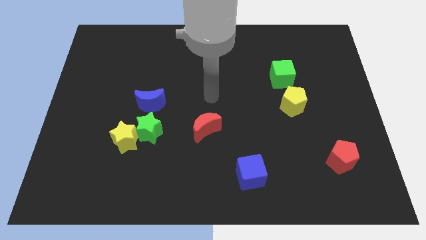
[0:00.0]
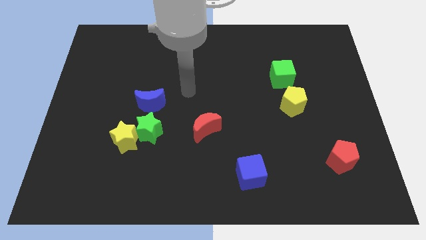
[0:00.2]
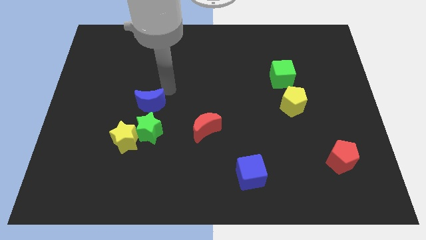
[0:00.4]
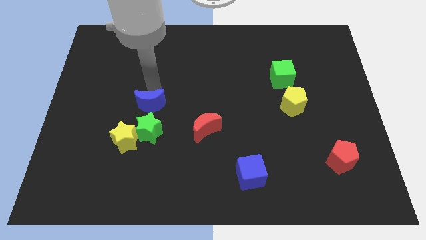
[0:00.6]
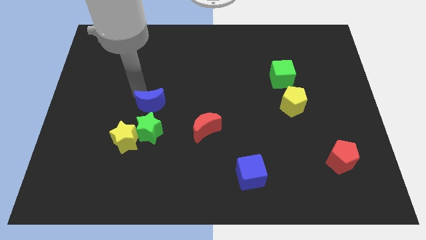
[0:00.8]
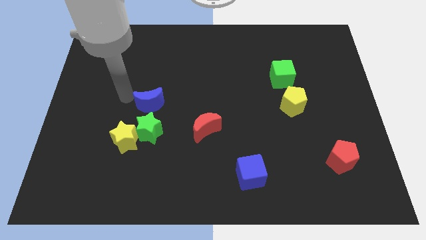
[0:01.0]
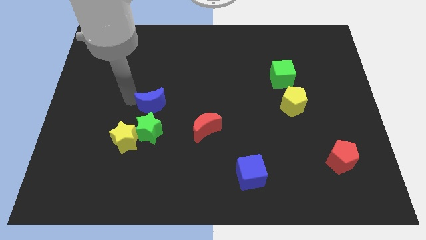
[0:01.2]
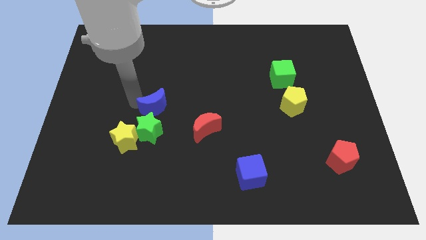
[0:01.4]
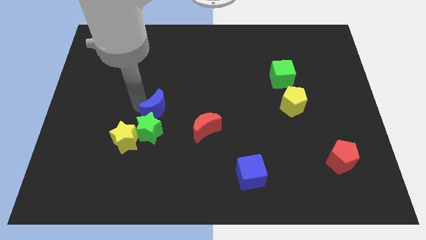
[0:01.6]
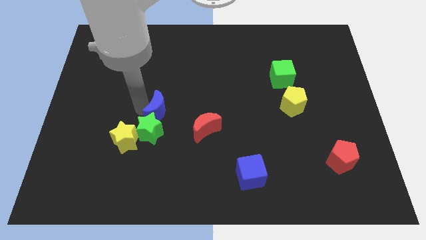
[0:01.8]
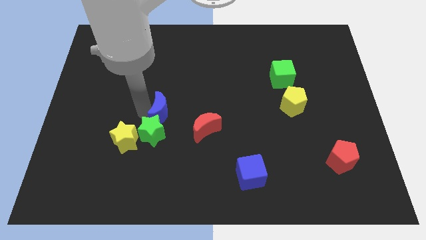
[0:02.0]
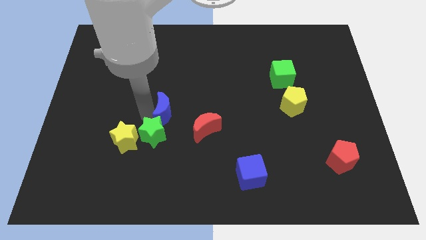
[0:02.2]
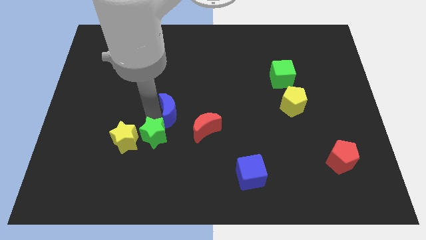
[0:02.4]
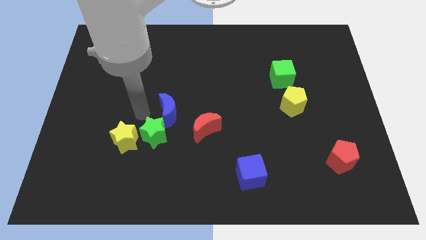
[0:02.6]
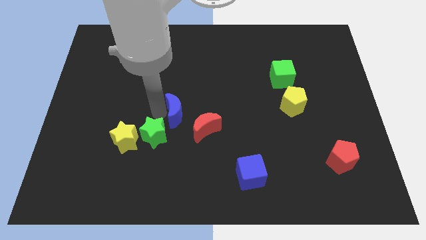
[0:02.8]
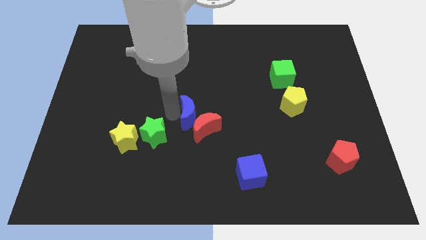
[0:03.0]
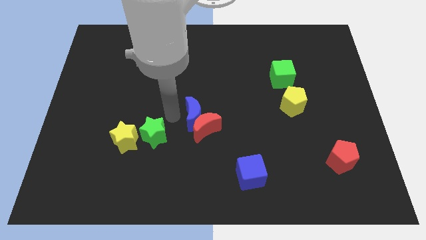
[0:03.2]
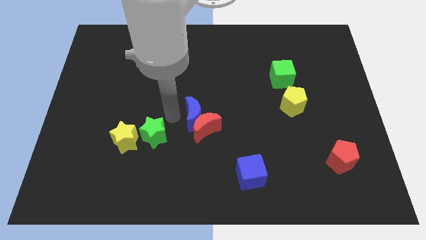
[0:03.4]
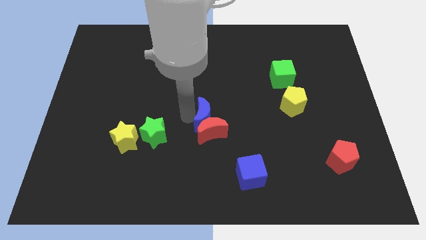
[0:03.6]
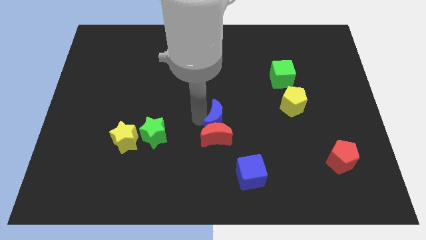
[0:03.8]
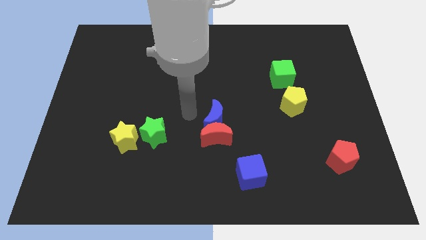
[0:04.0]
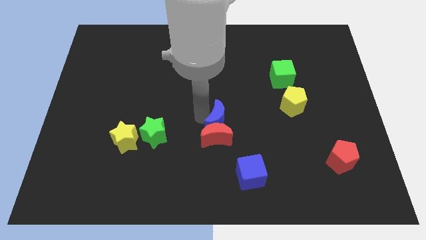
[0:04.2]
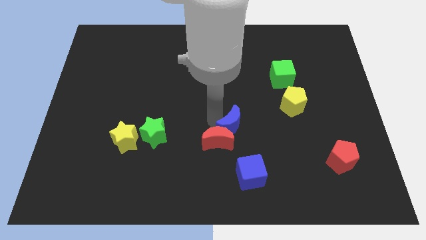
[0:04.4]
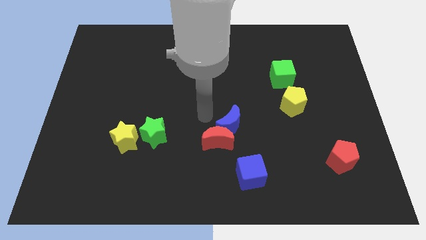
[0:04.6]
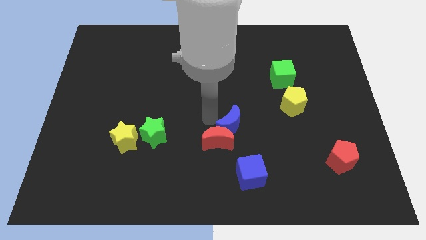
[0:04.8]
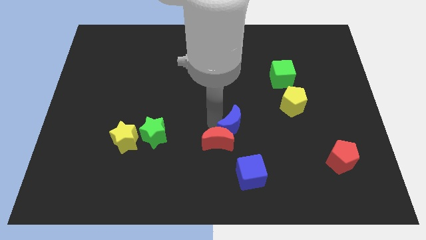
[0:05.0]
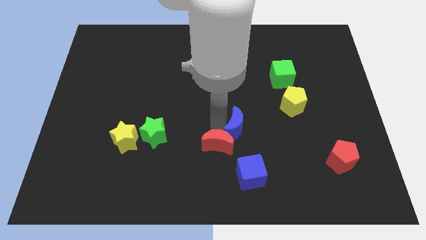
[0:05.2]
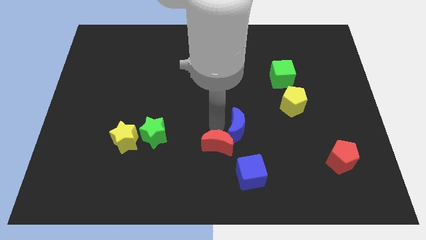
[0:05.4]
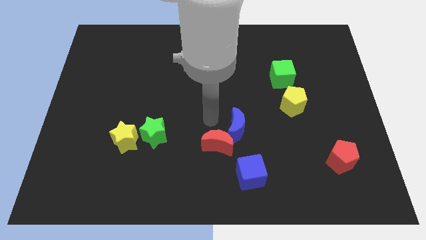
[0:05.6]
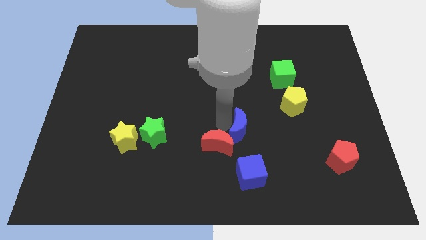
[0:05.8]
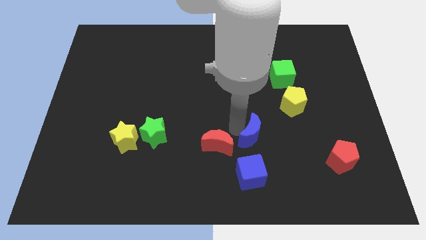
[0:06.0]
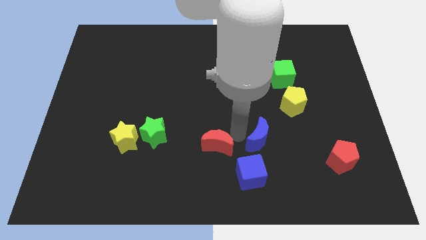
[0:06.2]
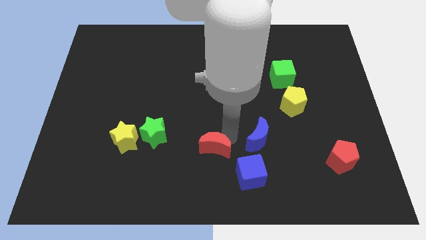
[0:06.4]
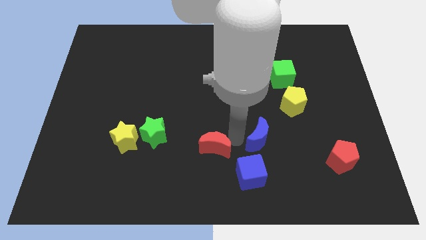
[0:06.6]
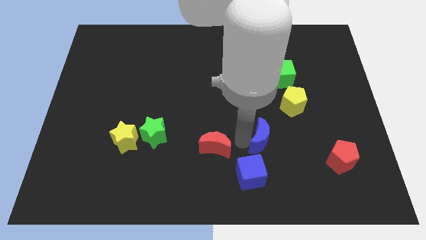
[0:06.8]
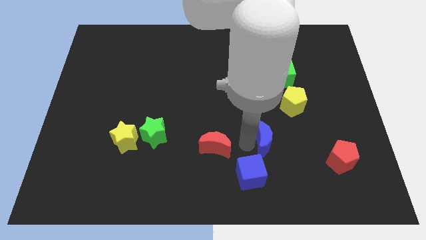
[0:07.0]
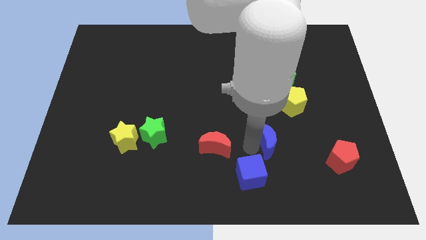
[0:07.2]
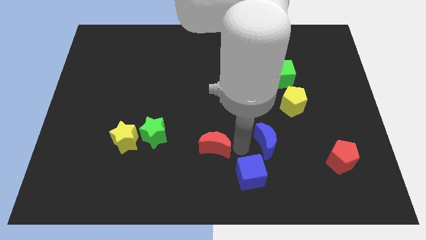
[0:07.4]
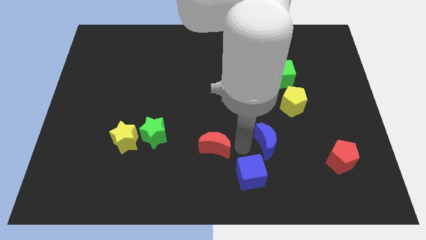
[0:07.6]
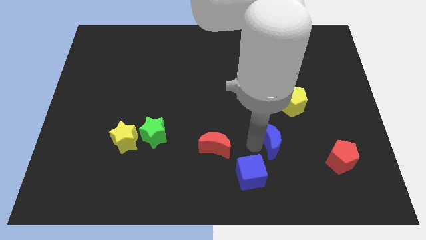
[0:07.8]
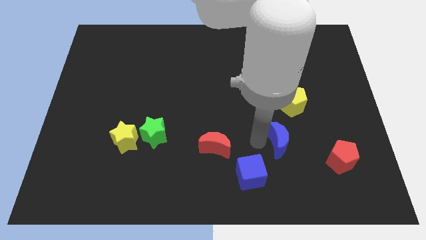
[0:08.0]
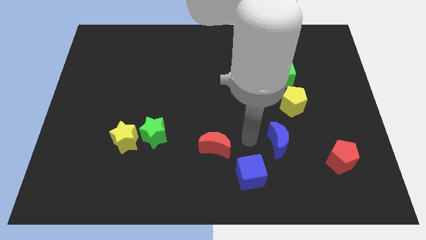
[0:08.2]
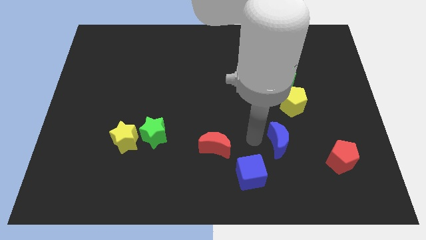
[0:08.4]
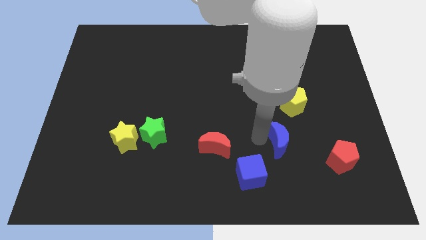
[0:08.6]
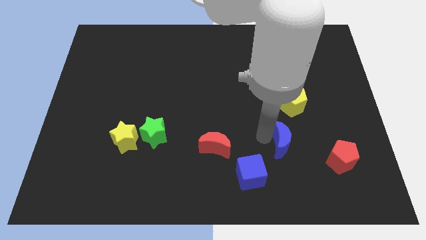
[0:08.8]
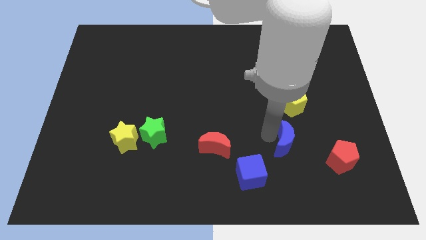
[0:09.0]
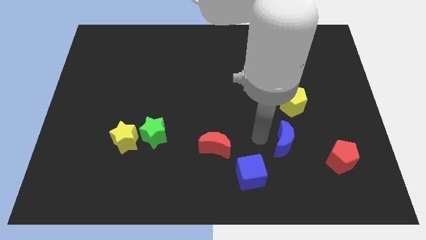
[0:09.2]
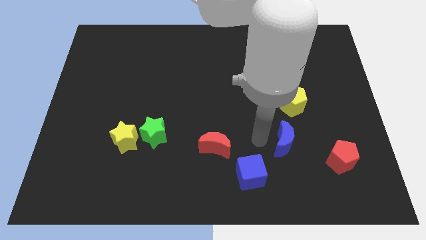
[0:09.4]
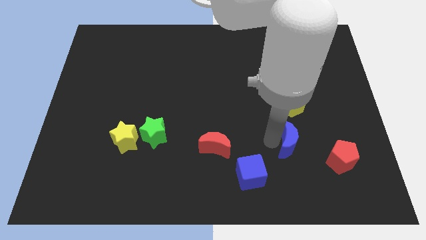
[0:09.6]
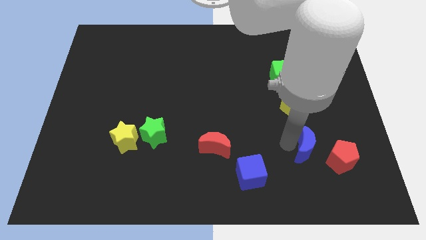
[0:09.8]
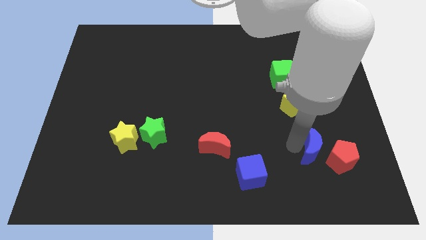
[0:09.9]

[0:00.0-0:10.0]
push the blue moon towards the red pentagon

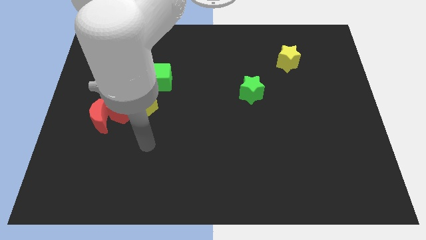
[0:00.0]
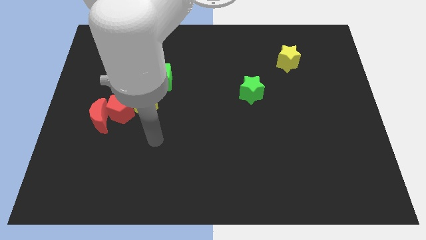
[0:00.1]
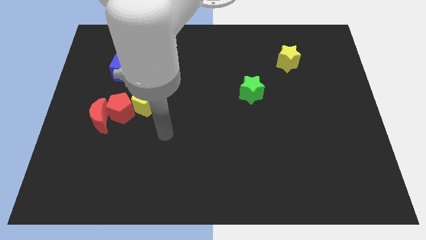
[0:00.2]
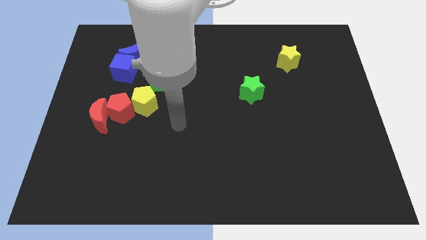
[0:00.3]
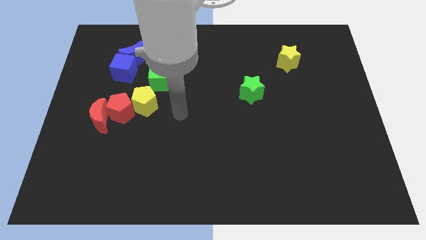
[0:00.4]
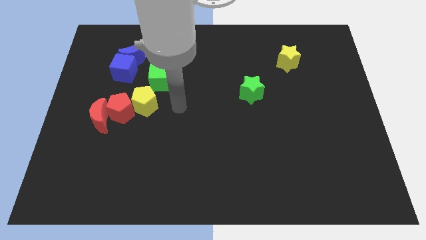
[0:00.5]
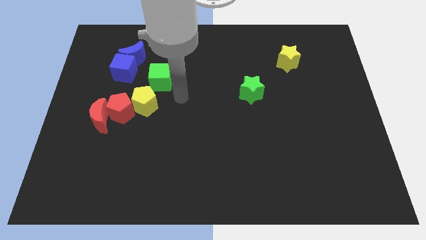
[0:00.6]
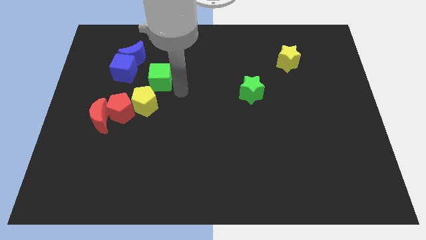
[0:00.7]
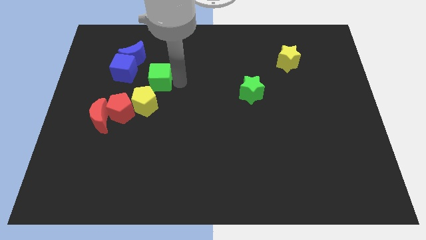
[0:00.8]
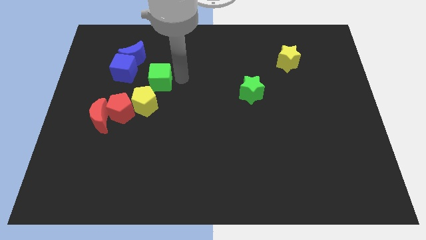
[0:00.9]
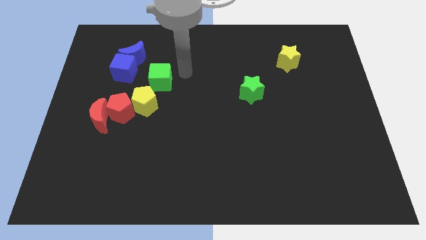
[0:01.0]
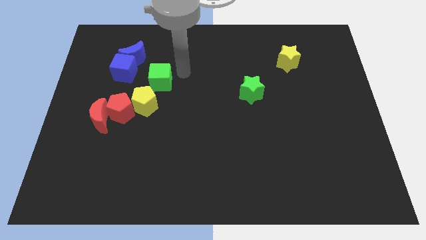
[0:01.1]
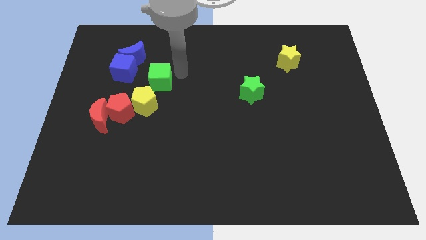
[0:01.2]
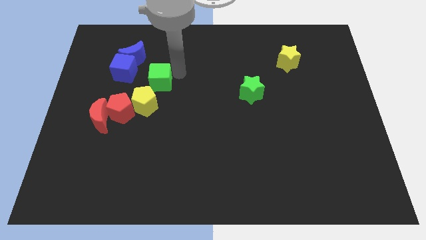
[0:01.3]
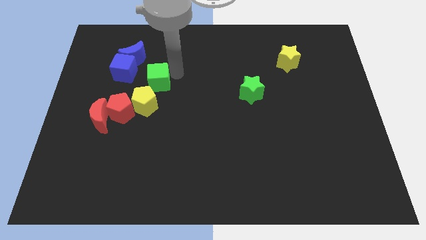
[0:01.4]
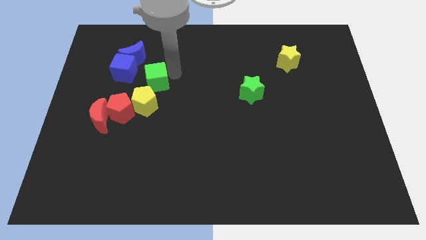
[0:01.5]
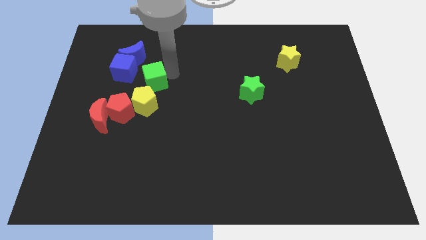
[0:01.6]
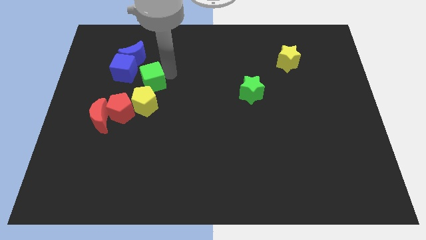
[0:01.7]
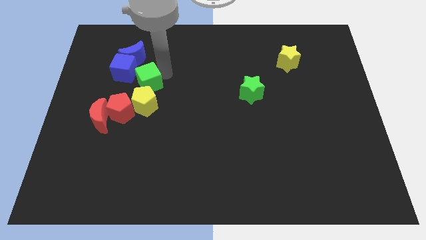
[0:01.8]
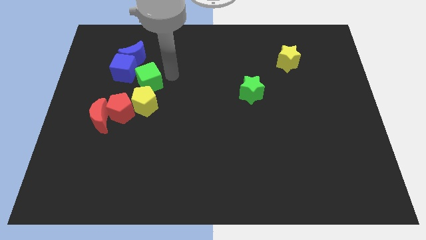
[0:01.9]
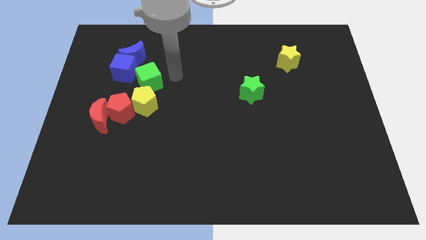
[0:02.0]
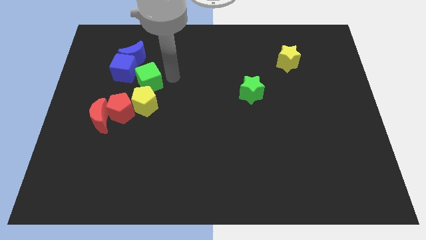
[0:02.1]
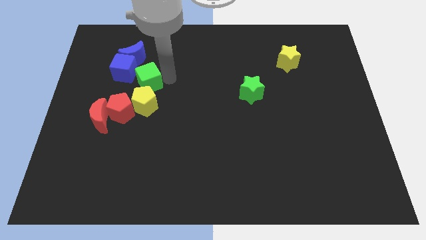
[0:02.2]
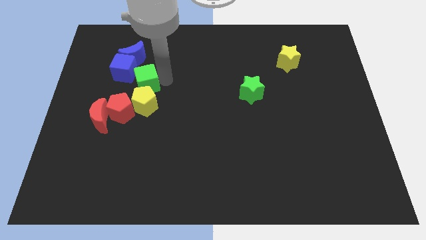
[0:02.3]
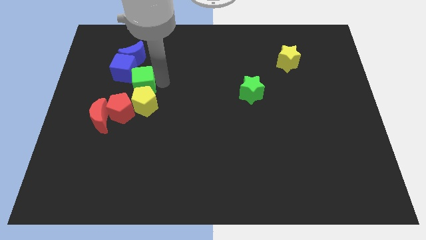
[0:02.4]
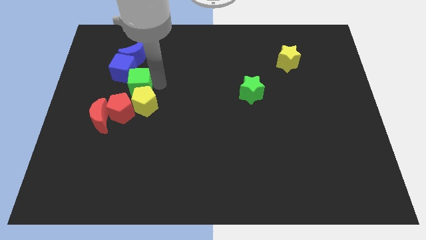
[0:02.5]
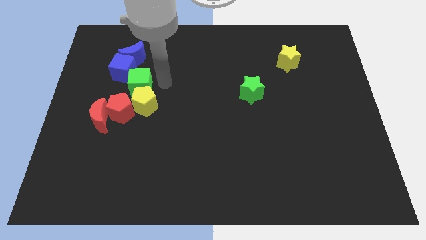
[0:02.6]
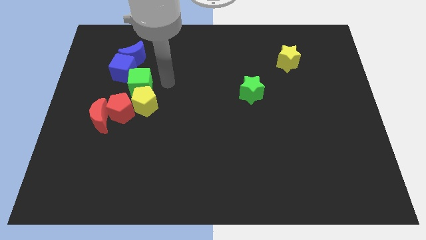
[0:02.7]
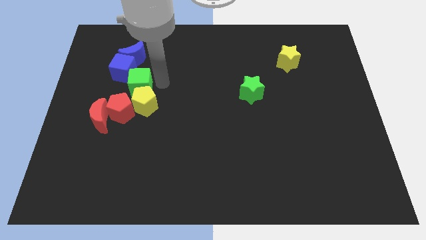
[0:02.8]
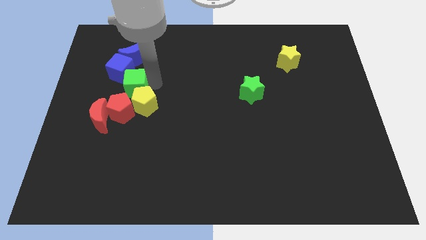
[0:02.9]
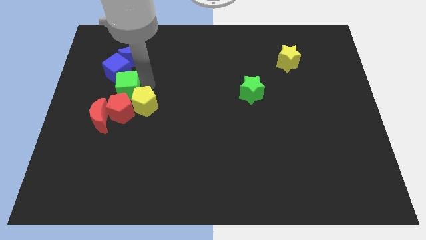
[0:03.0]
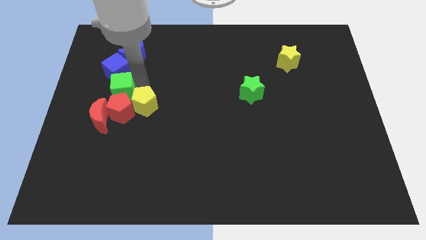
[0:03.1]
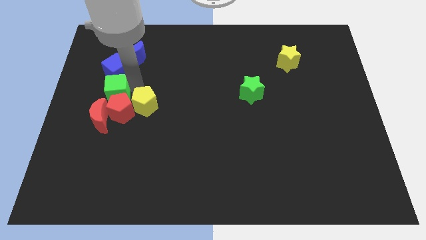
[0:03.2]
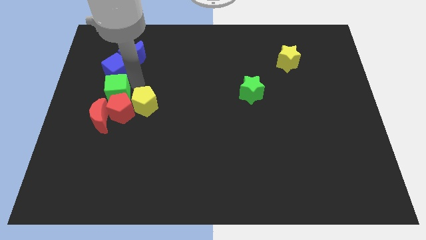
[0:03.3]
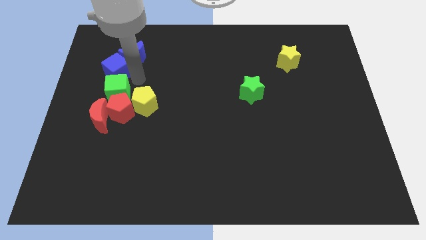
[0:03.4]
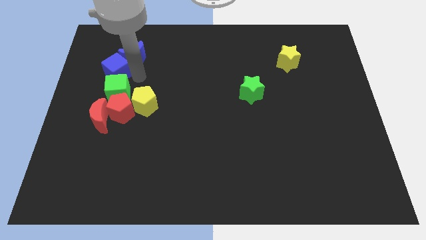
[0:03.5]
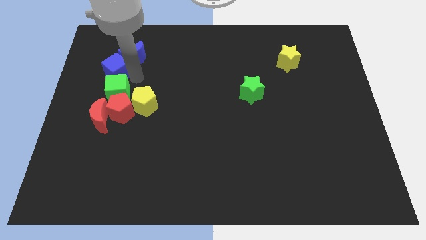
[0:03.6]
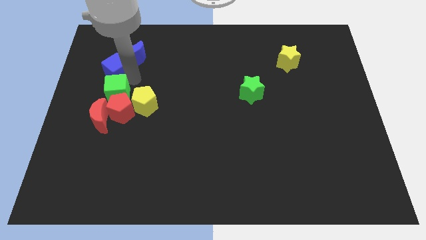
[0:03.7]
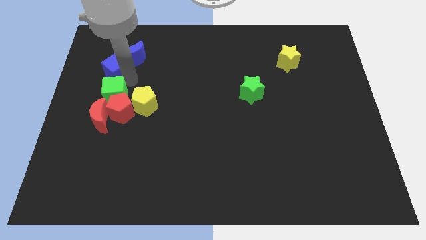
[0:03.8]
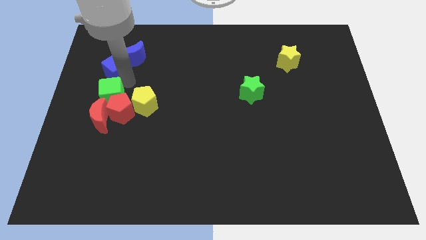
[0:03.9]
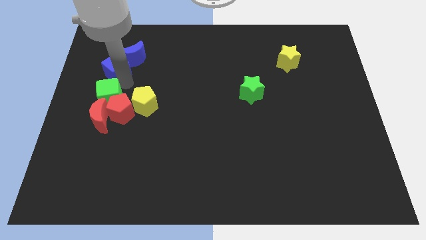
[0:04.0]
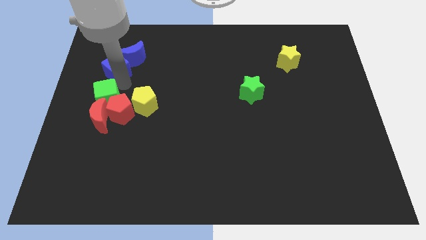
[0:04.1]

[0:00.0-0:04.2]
put the green cube close to the red moon
